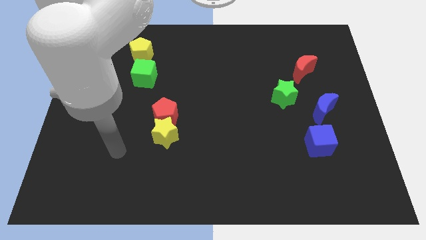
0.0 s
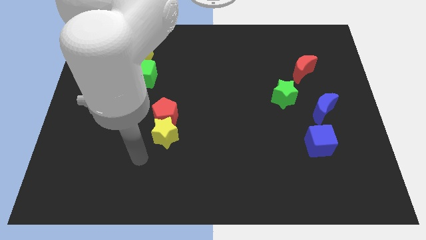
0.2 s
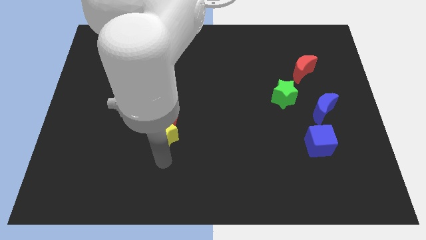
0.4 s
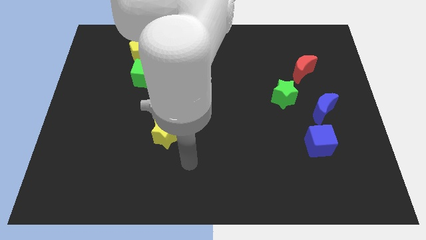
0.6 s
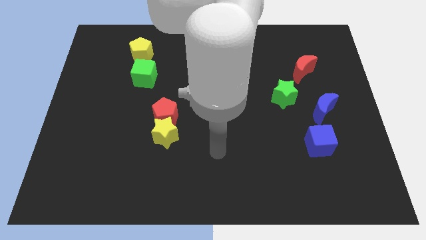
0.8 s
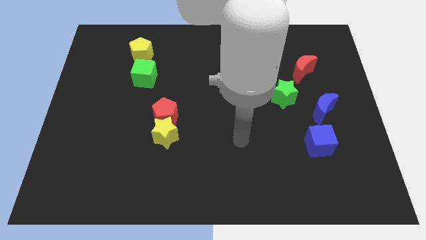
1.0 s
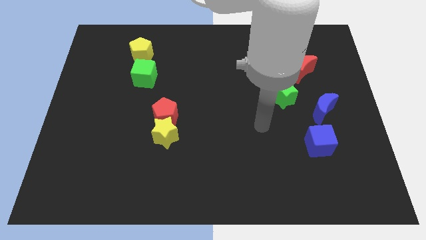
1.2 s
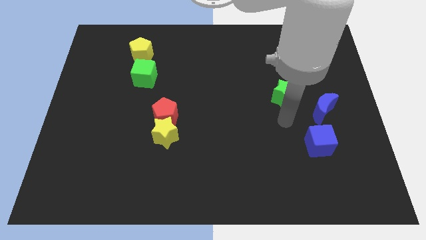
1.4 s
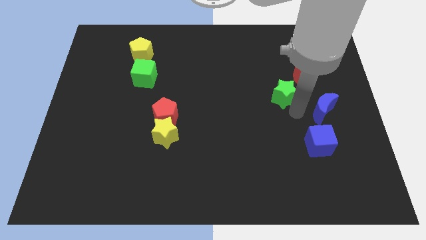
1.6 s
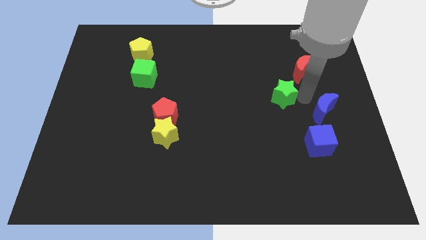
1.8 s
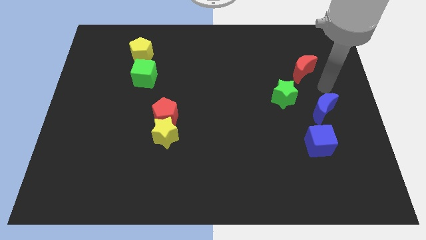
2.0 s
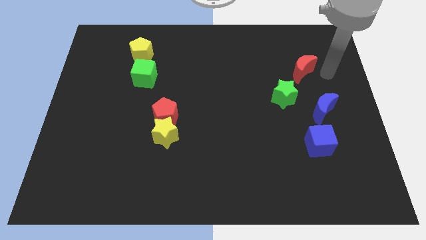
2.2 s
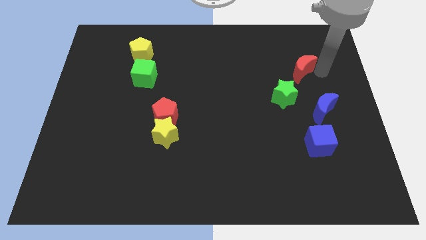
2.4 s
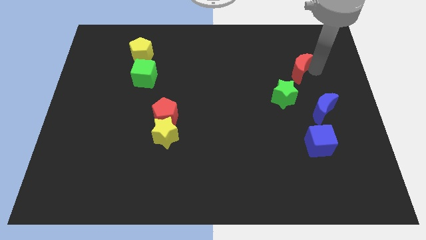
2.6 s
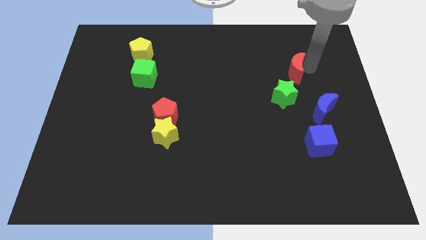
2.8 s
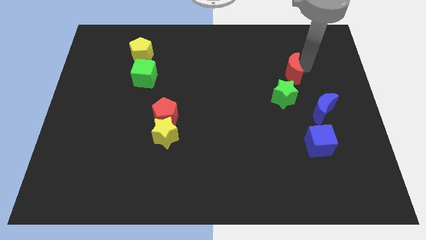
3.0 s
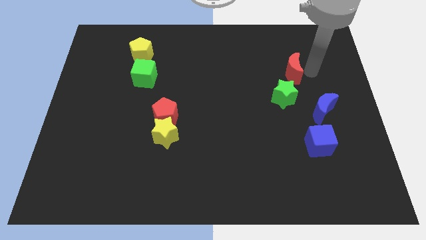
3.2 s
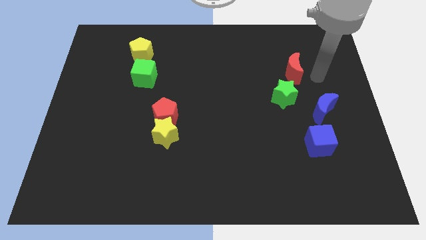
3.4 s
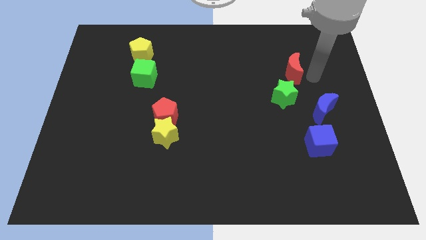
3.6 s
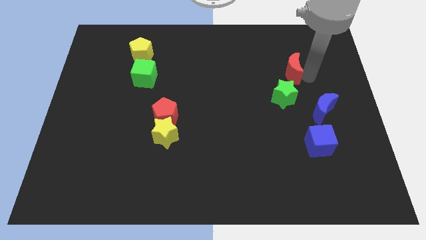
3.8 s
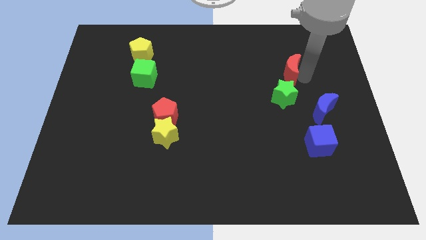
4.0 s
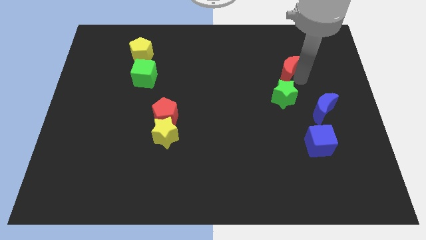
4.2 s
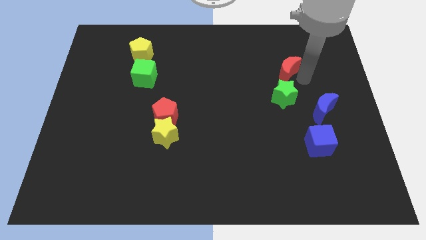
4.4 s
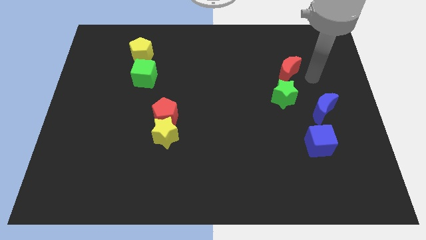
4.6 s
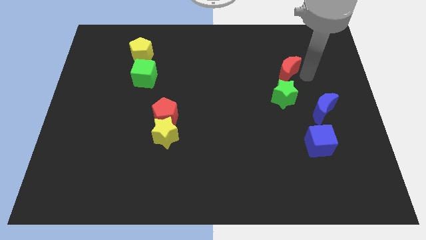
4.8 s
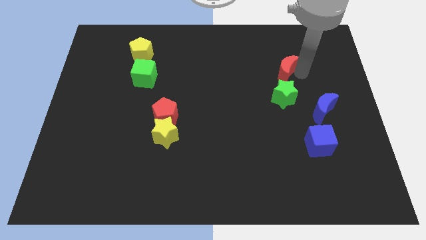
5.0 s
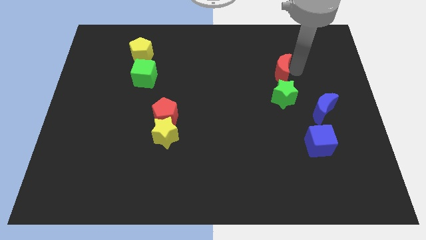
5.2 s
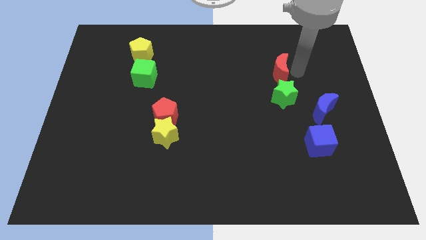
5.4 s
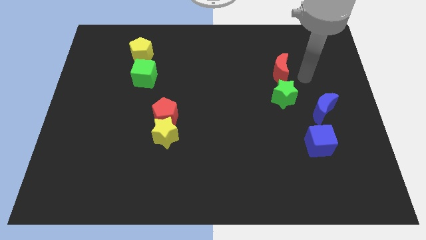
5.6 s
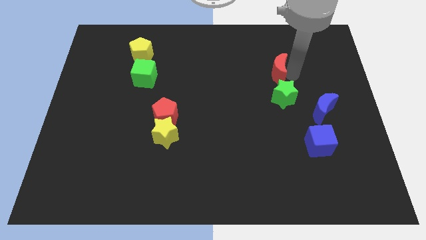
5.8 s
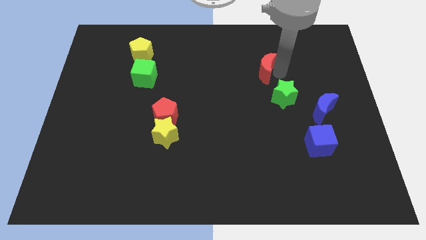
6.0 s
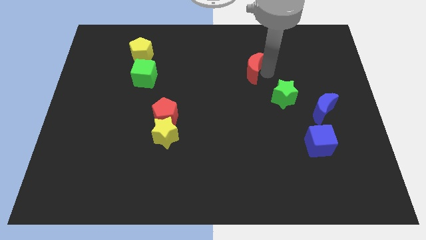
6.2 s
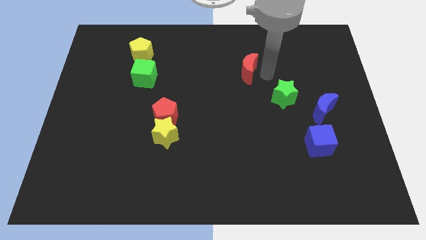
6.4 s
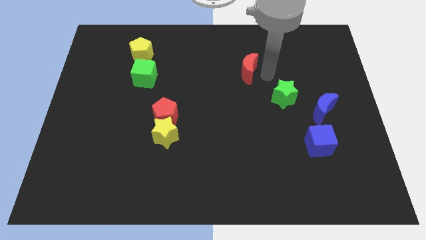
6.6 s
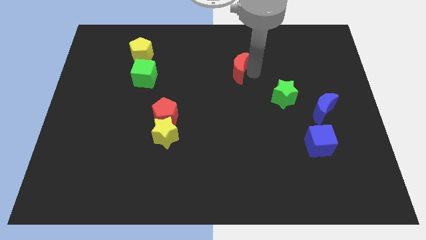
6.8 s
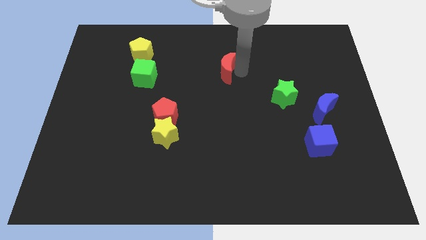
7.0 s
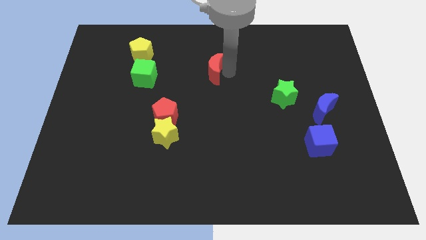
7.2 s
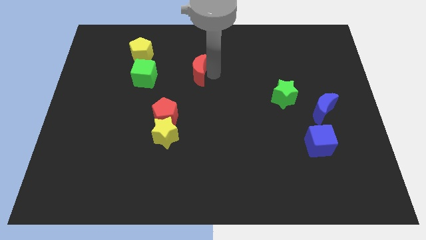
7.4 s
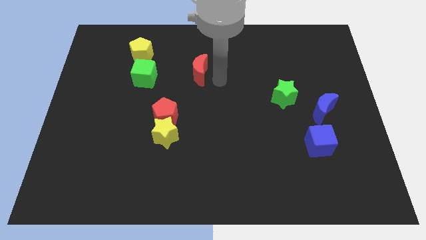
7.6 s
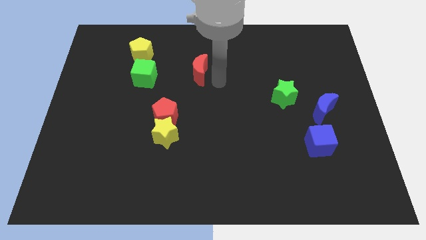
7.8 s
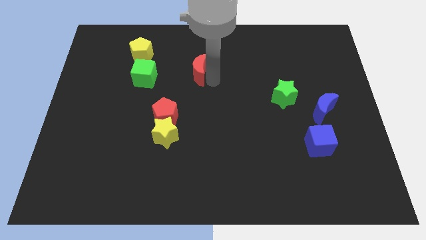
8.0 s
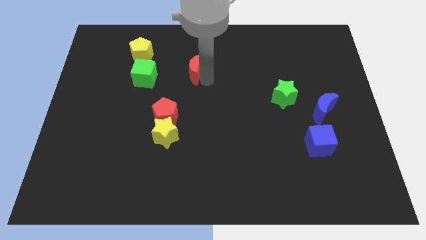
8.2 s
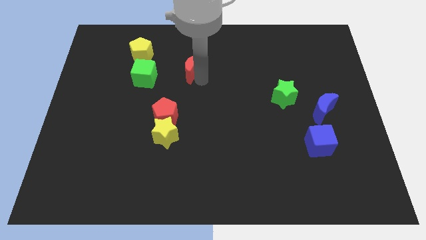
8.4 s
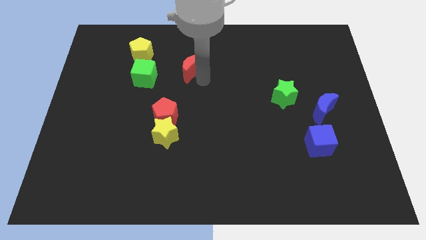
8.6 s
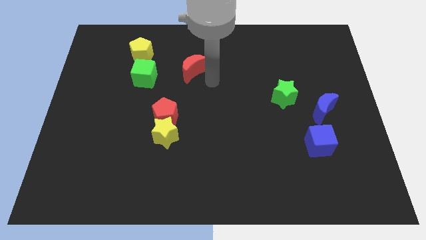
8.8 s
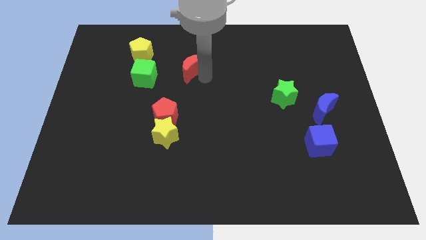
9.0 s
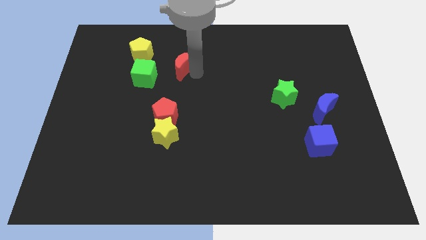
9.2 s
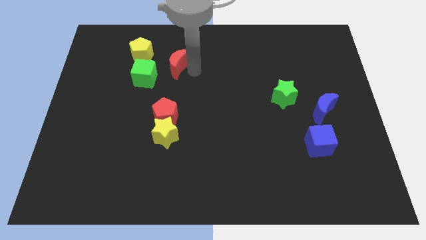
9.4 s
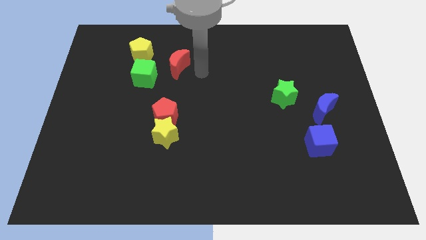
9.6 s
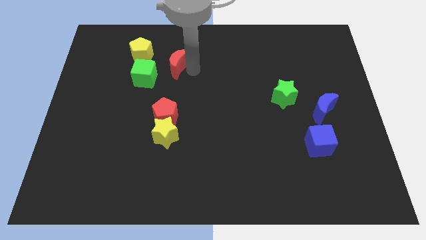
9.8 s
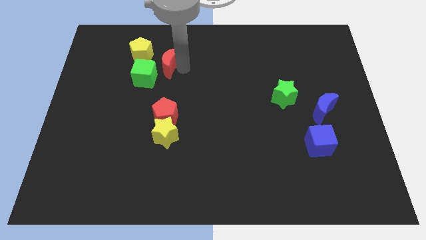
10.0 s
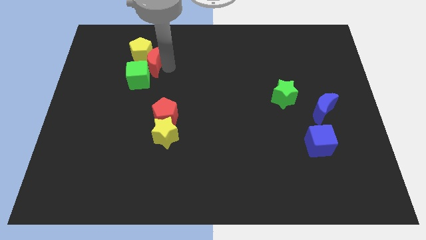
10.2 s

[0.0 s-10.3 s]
put the red moon towards the yellow pentagon

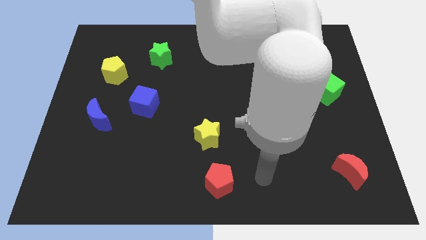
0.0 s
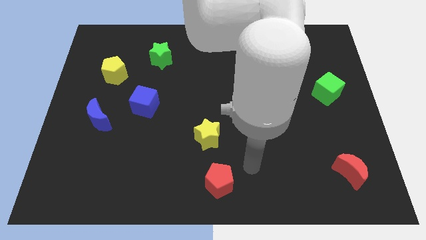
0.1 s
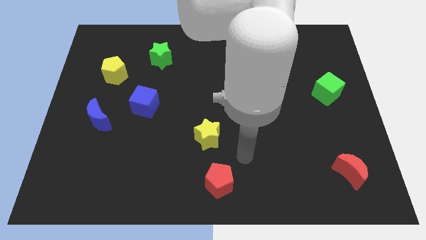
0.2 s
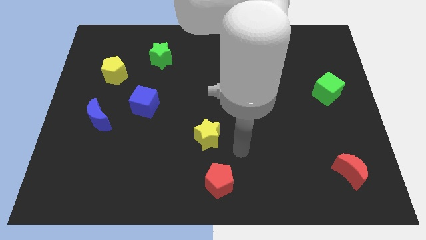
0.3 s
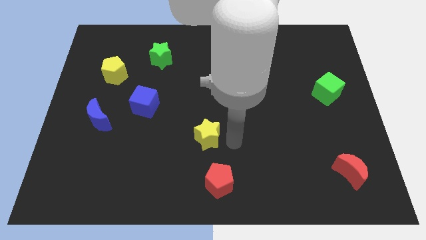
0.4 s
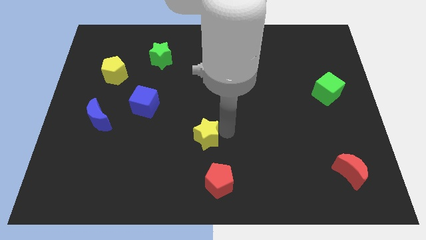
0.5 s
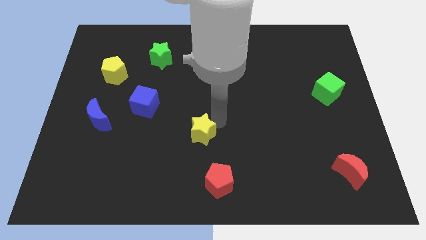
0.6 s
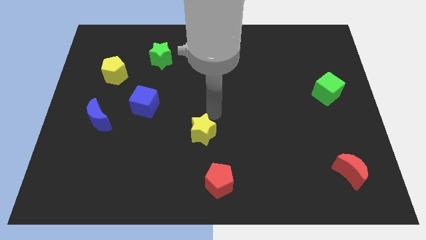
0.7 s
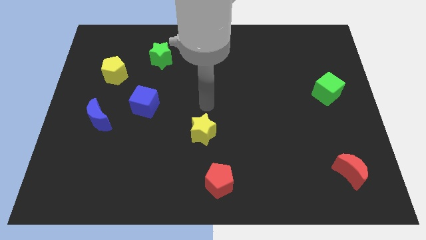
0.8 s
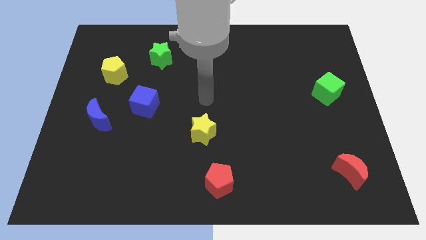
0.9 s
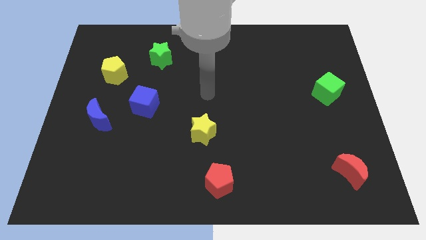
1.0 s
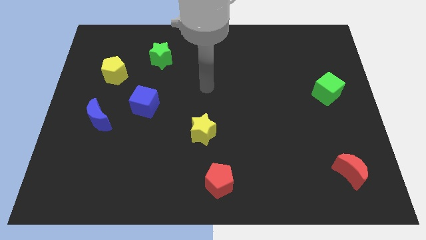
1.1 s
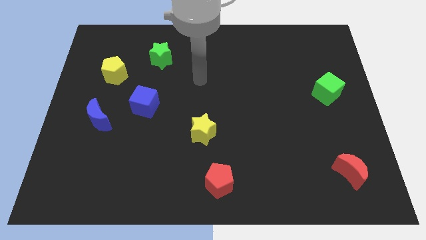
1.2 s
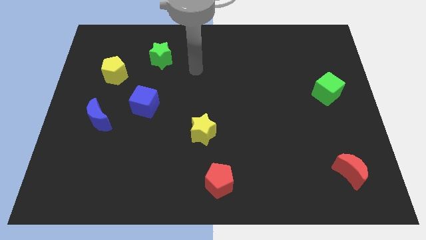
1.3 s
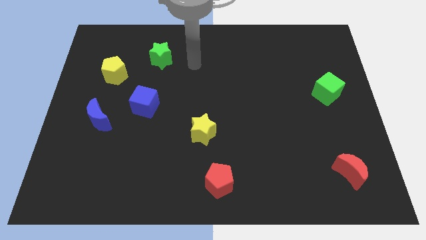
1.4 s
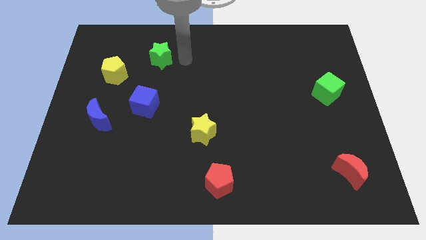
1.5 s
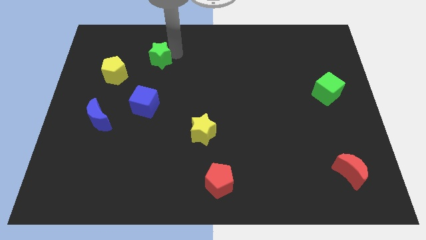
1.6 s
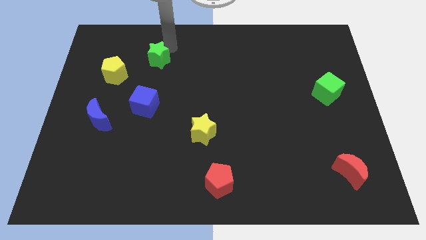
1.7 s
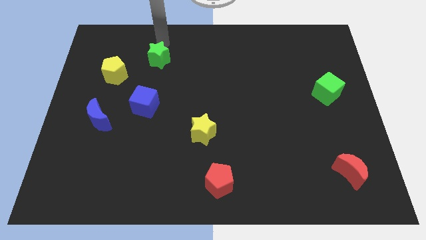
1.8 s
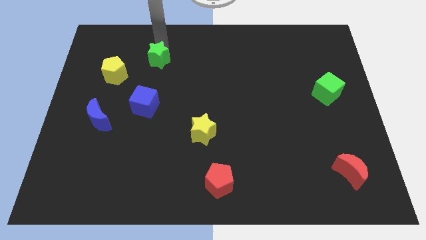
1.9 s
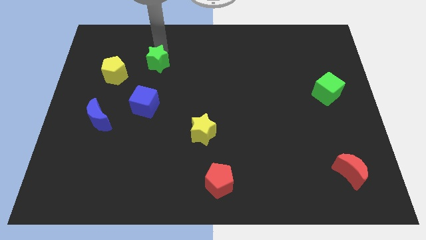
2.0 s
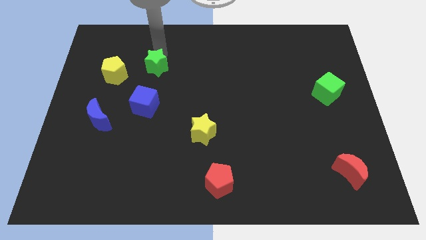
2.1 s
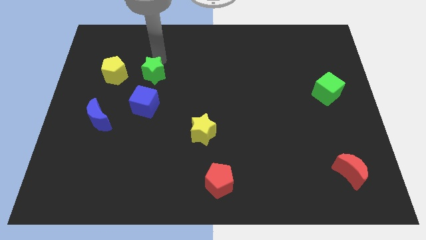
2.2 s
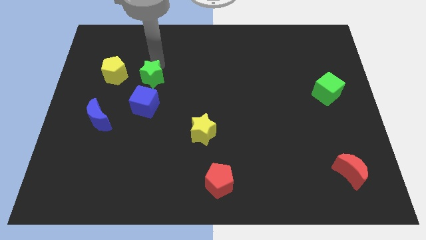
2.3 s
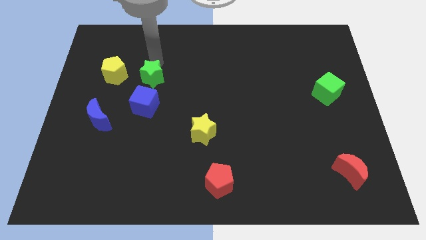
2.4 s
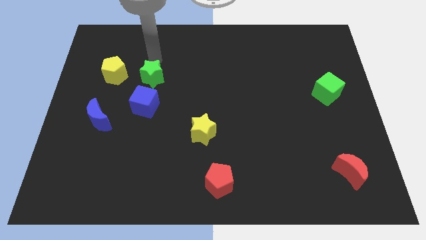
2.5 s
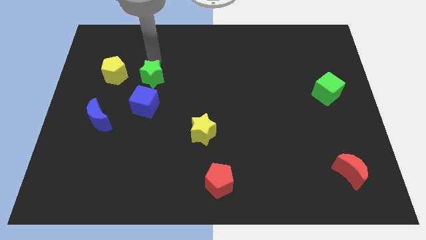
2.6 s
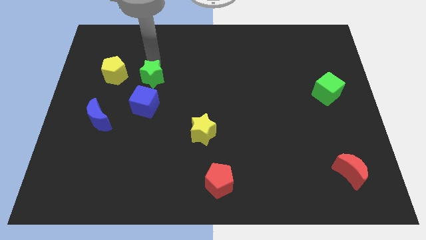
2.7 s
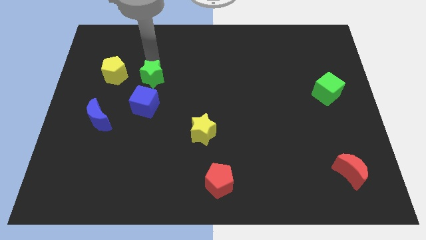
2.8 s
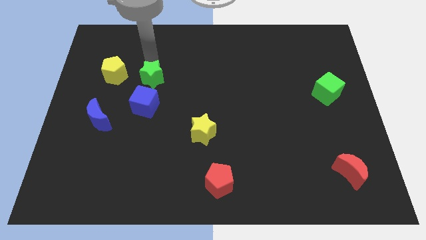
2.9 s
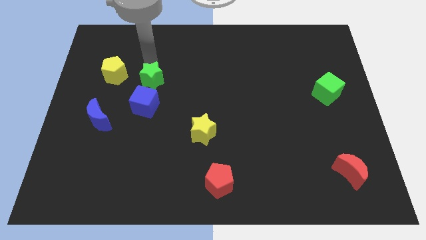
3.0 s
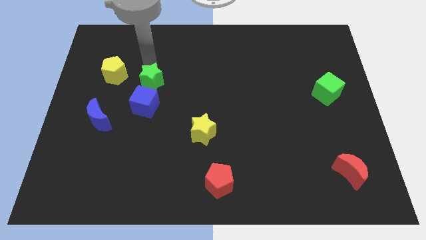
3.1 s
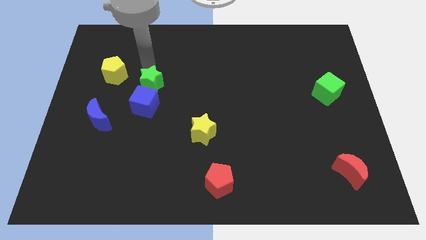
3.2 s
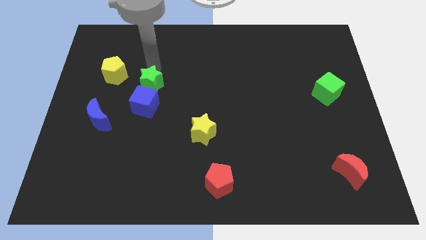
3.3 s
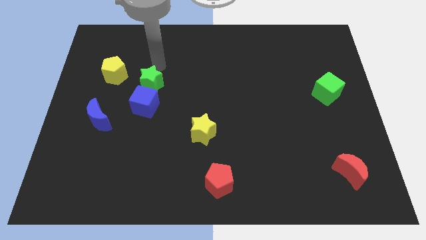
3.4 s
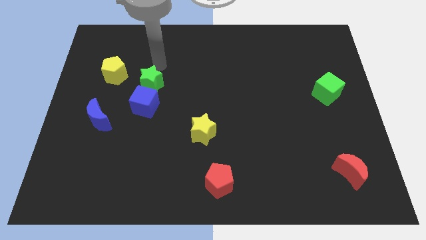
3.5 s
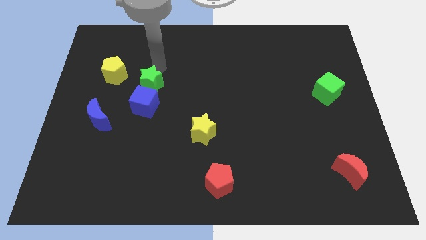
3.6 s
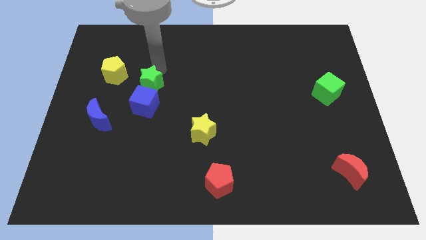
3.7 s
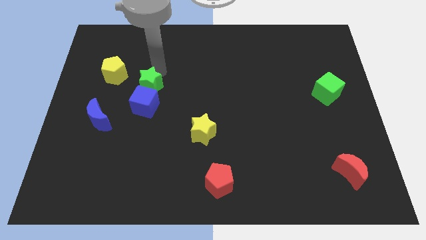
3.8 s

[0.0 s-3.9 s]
put the green star to the blue cube
